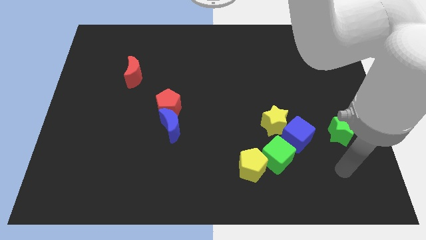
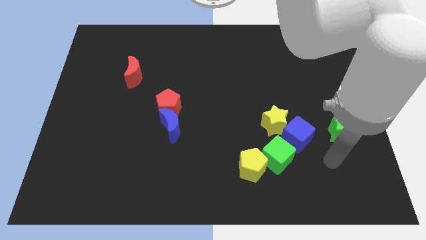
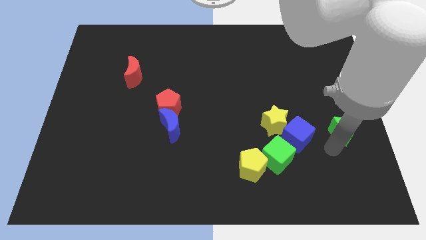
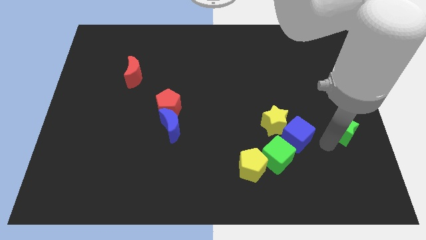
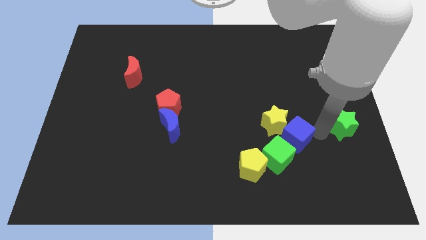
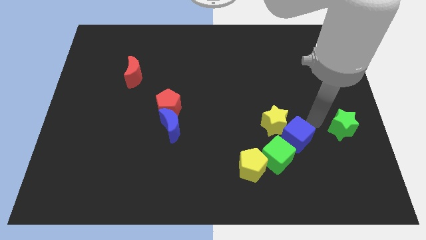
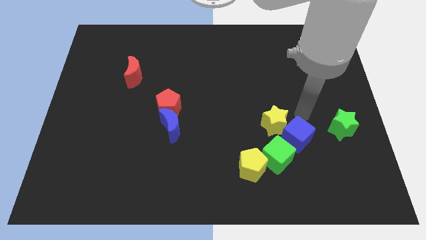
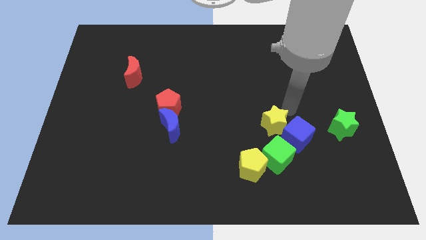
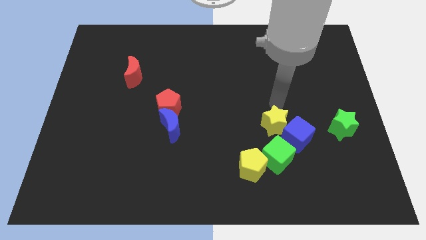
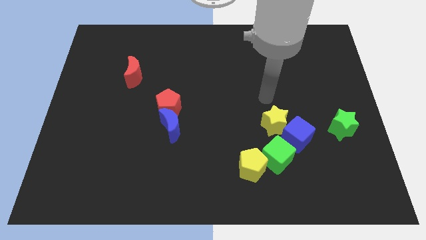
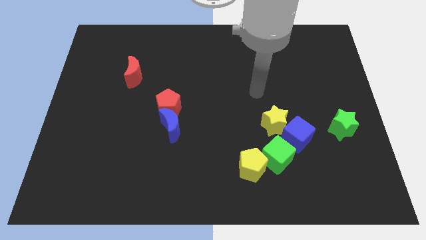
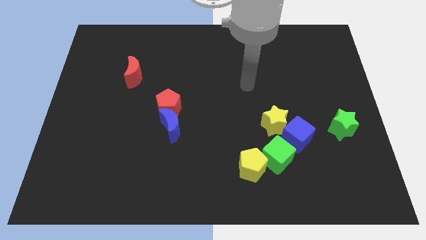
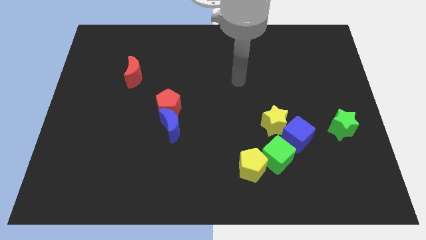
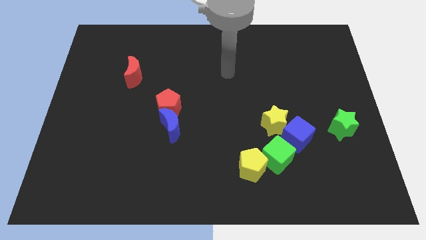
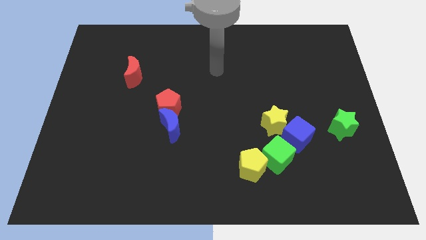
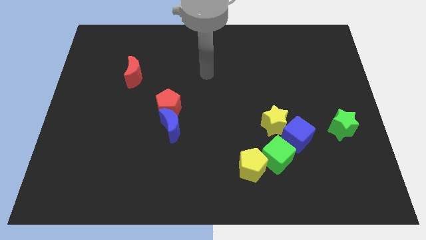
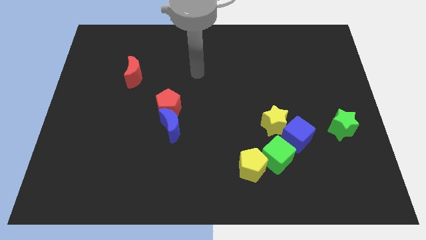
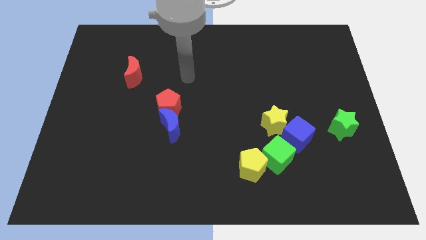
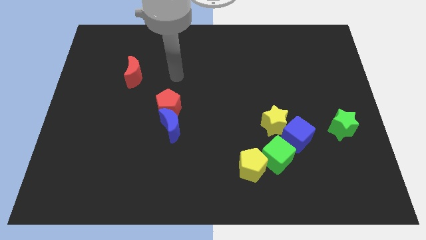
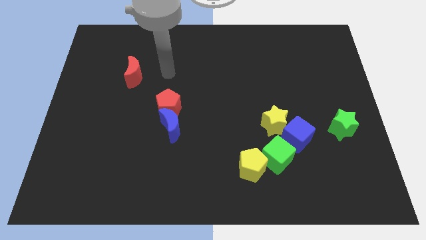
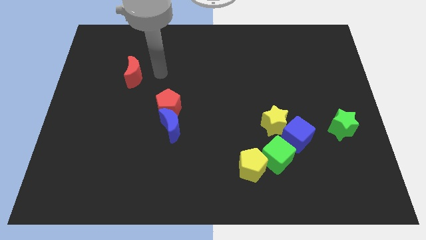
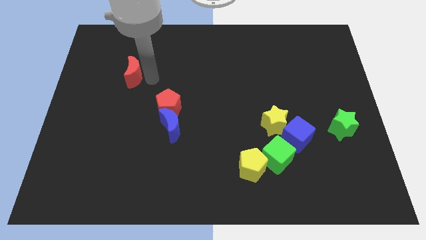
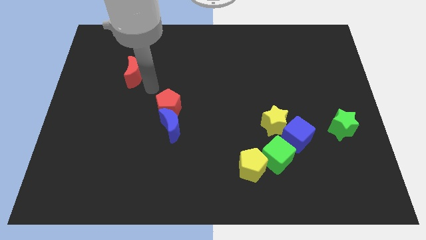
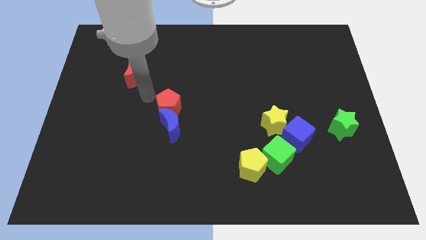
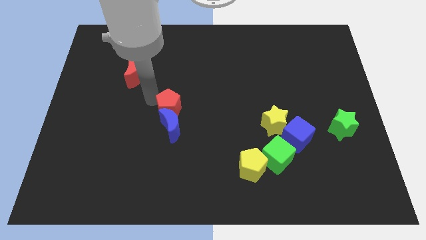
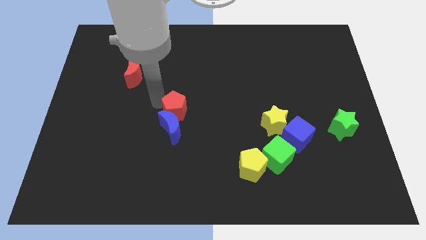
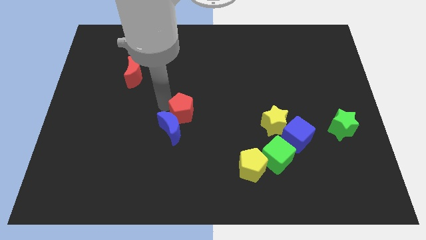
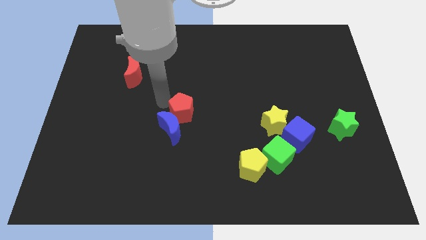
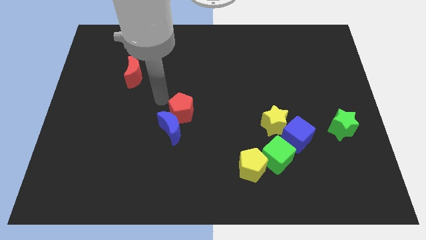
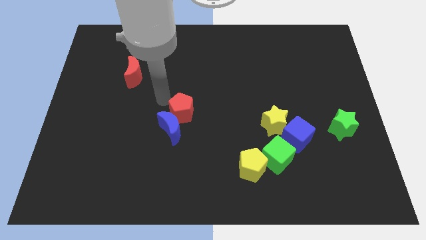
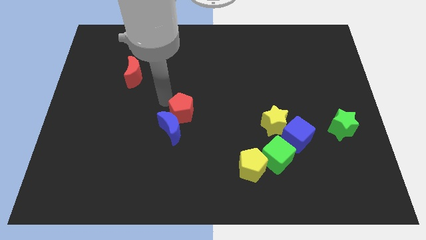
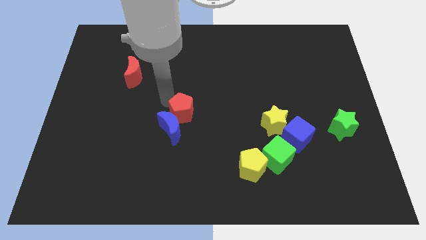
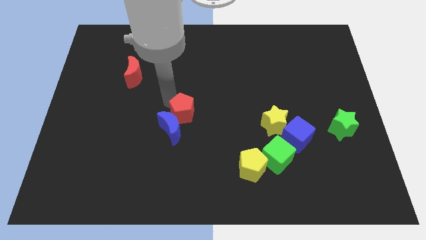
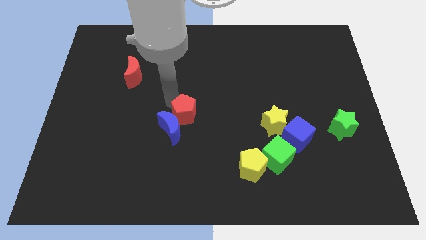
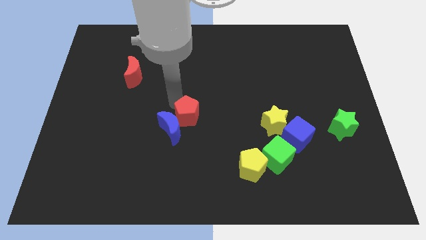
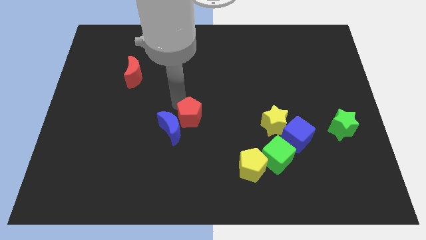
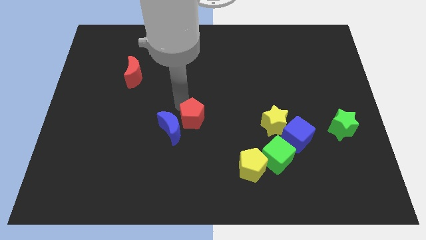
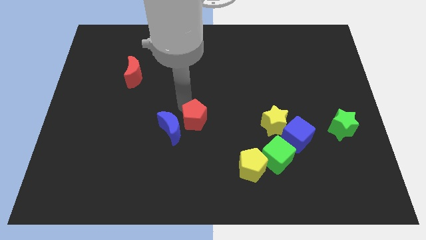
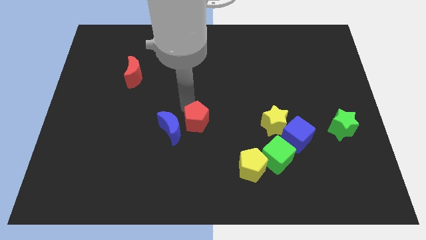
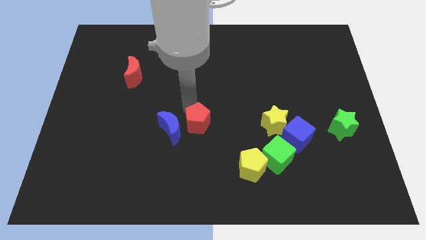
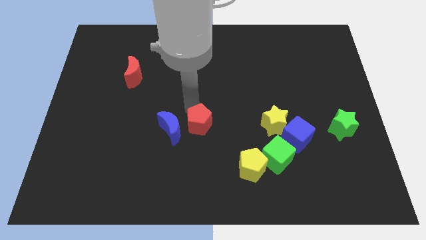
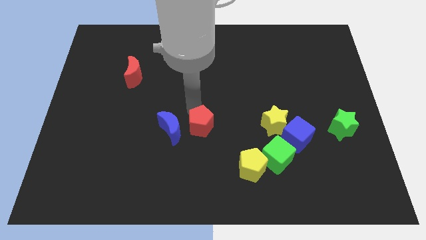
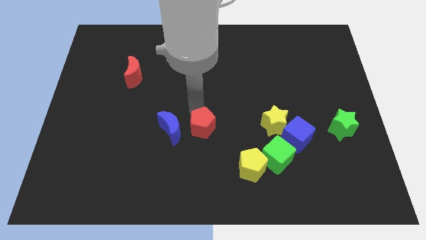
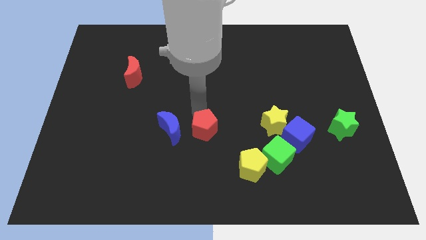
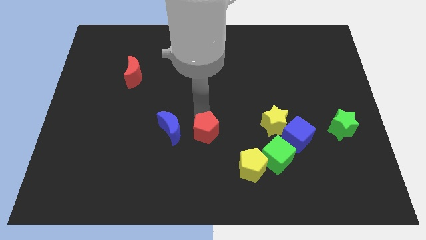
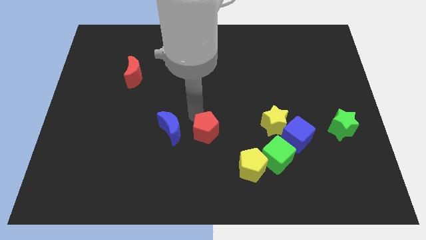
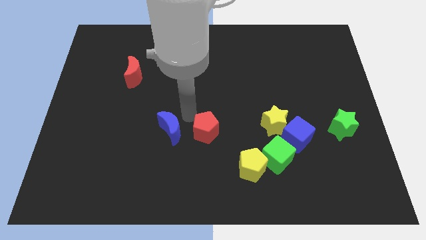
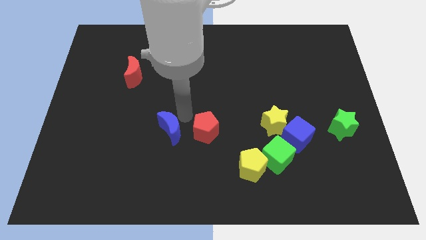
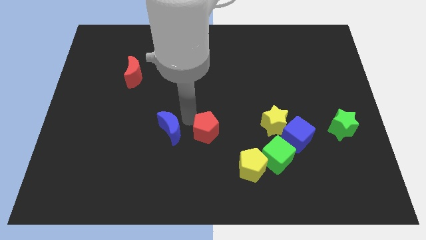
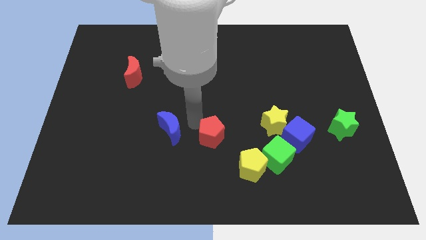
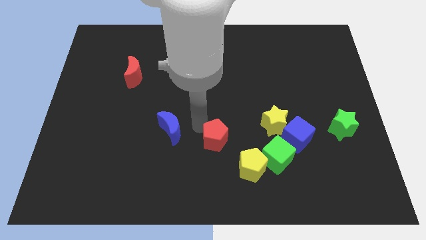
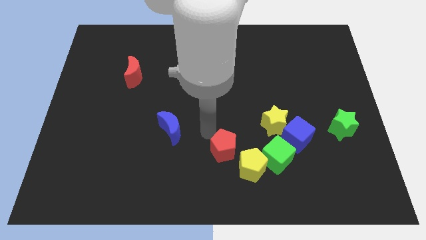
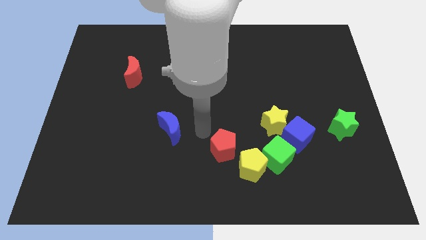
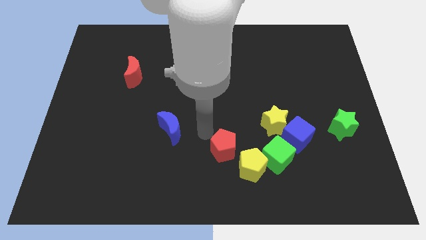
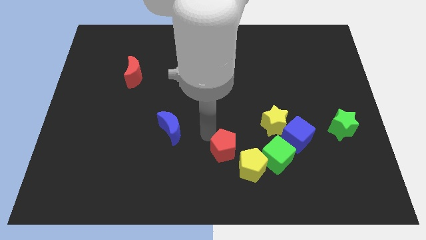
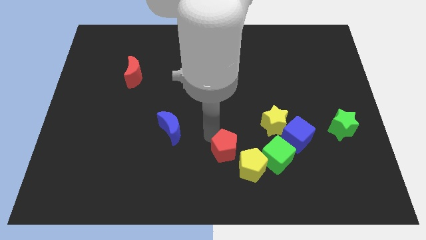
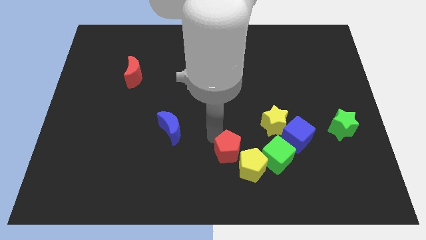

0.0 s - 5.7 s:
slide the red pentagon next to the yellow pentagon

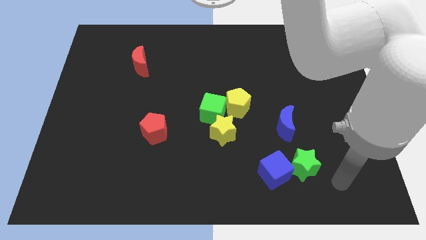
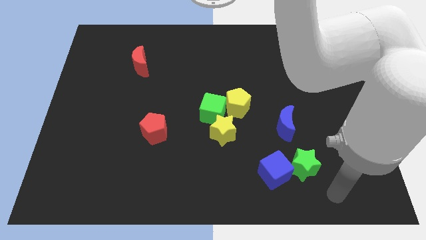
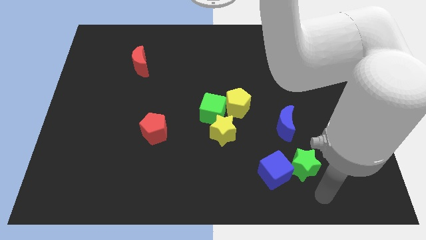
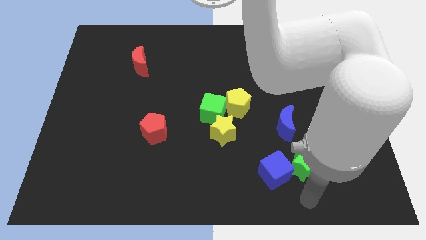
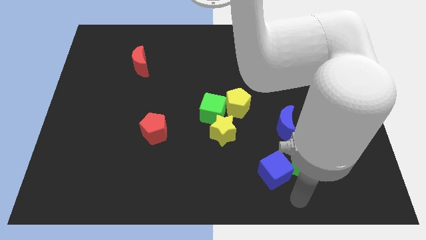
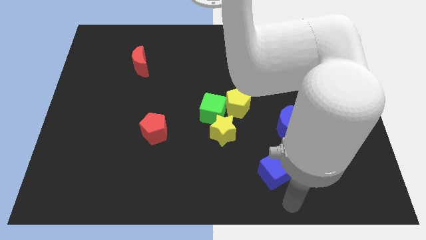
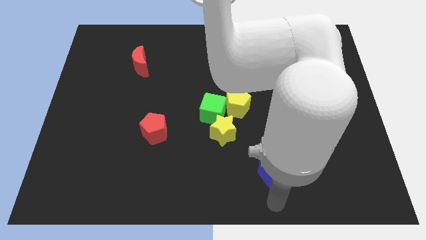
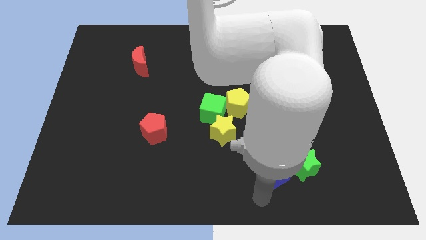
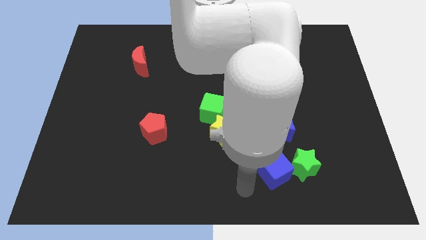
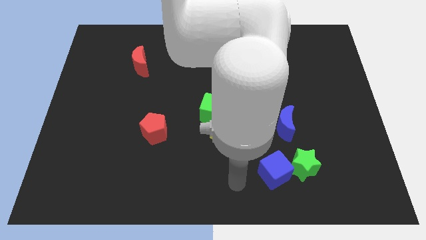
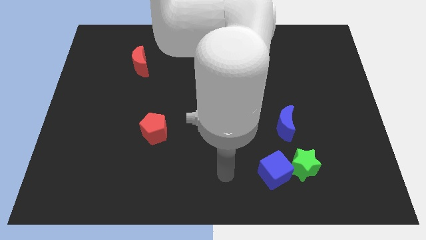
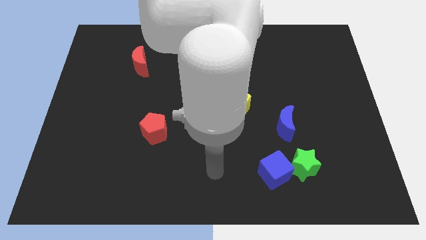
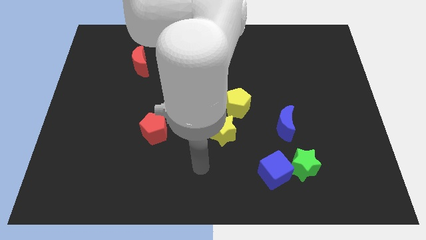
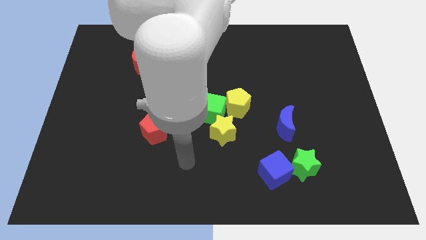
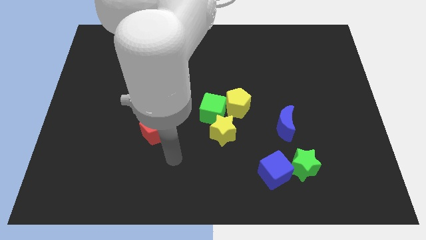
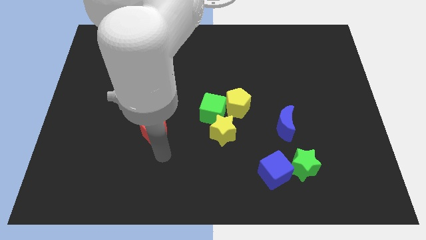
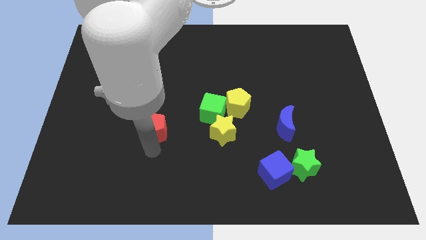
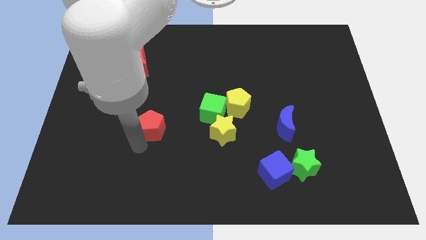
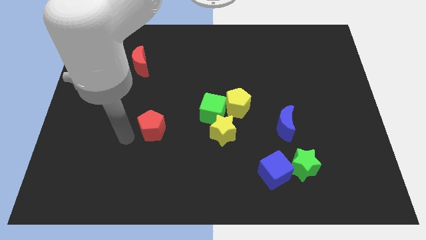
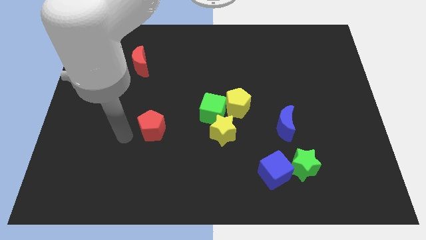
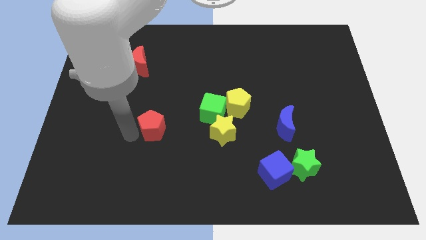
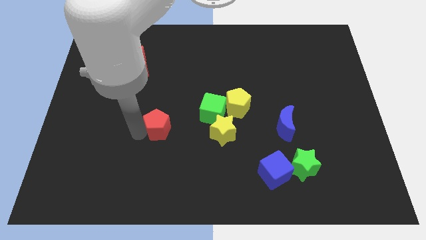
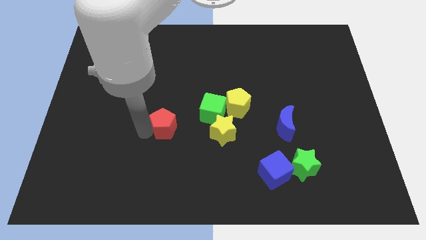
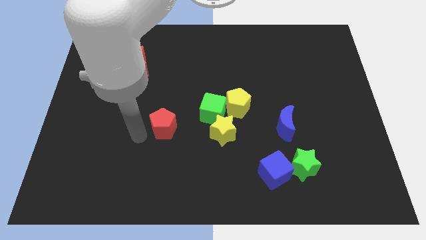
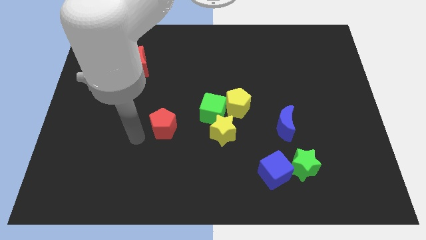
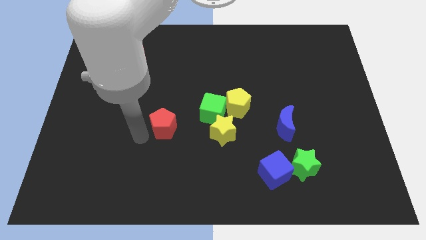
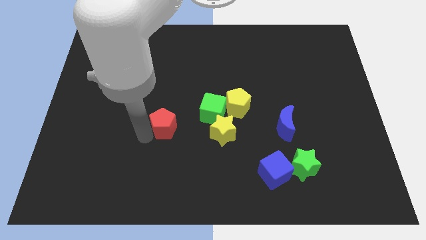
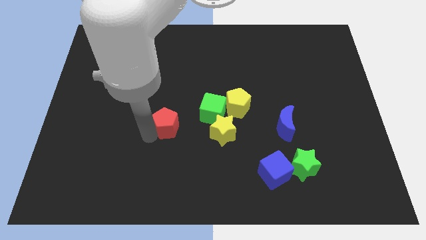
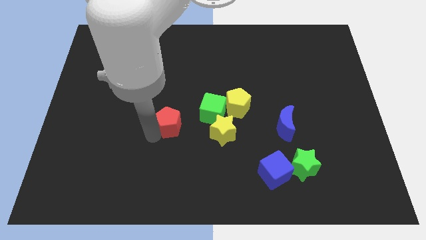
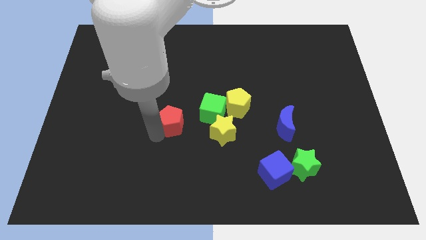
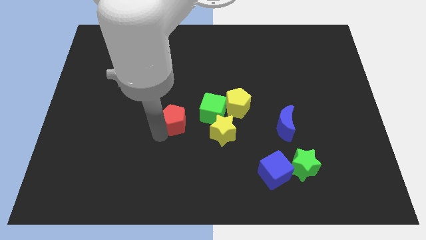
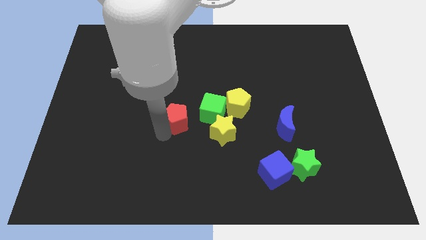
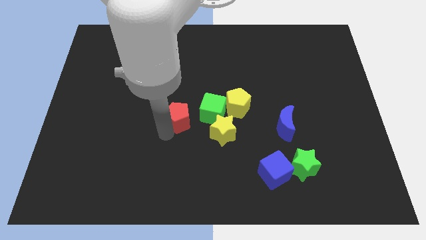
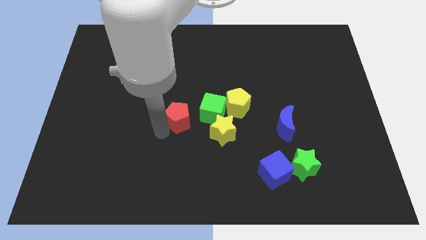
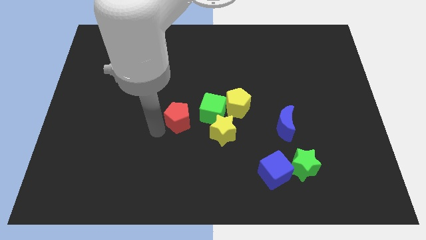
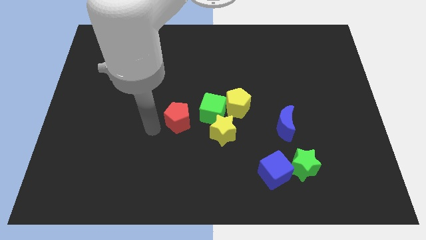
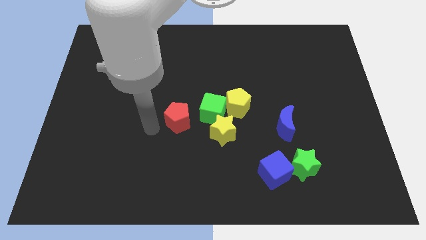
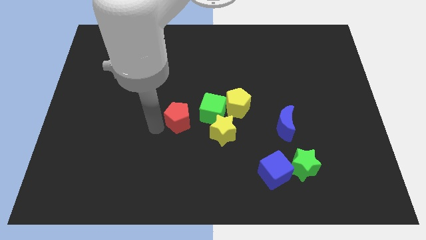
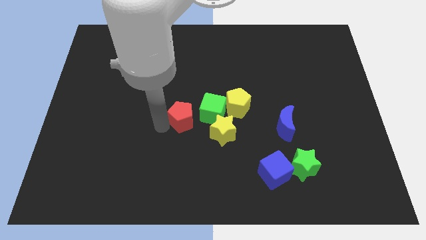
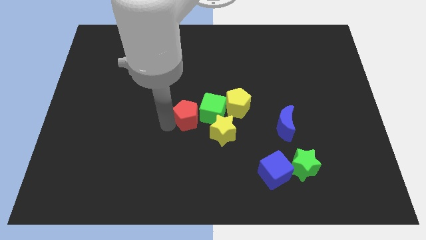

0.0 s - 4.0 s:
push the red pentagon towards the green cube
